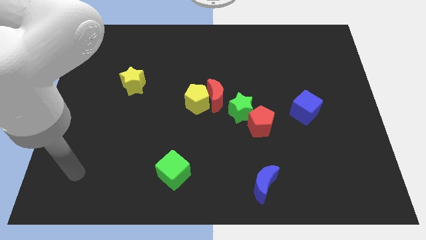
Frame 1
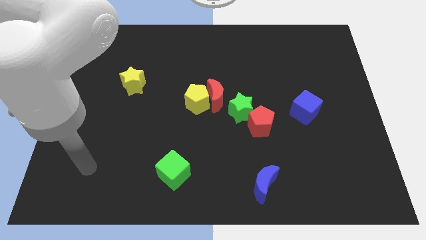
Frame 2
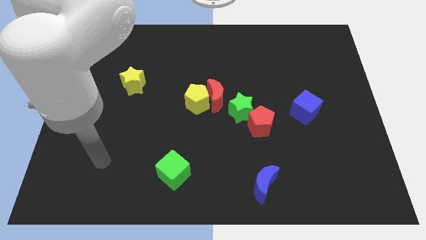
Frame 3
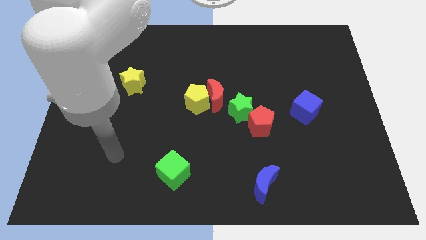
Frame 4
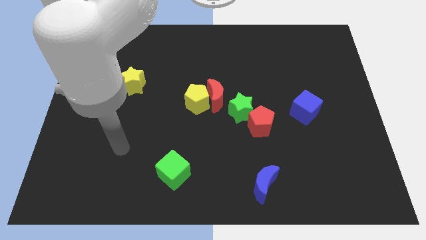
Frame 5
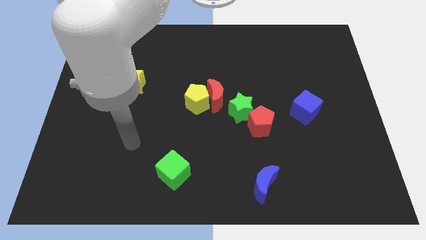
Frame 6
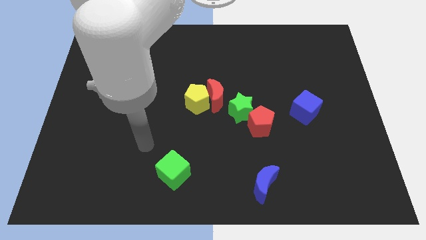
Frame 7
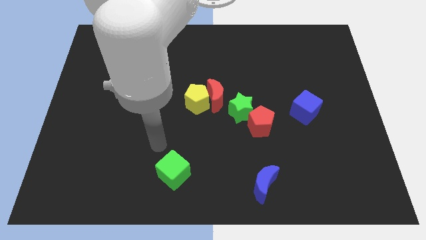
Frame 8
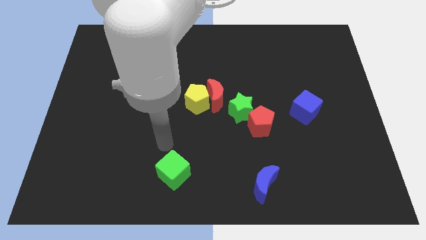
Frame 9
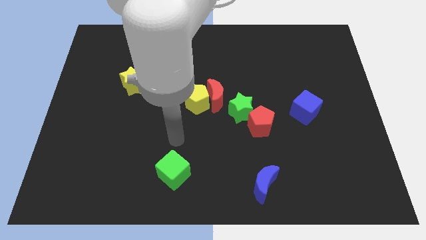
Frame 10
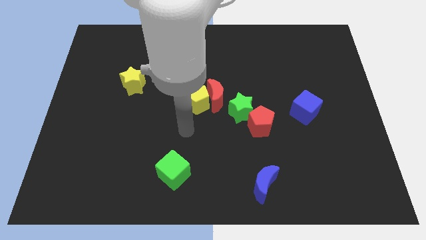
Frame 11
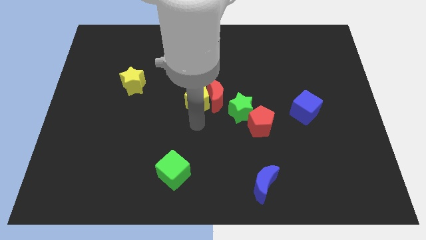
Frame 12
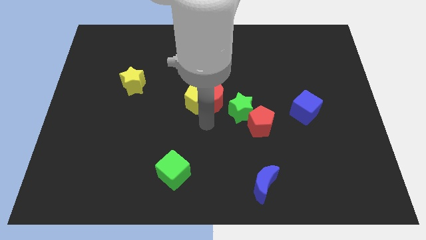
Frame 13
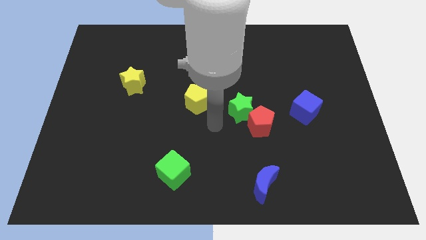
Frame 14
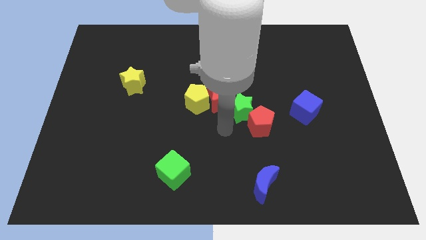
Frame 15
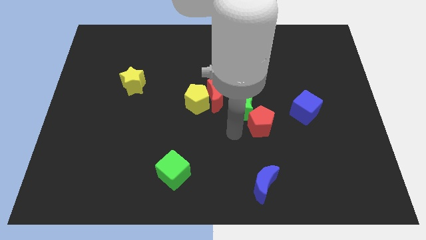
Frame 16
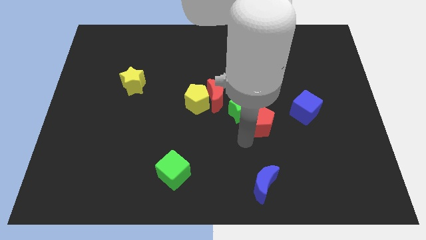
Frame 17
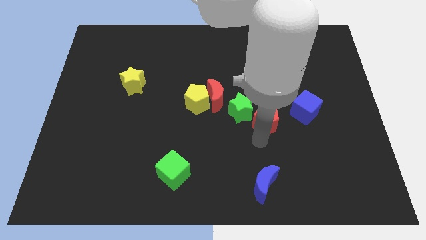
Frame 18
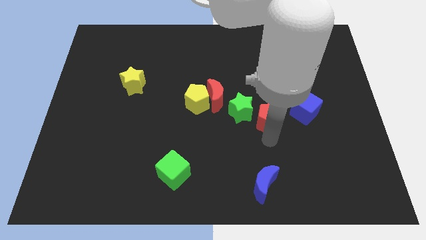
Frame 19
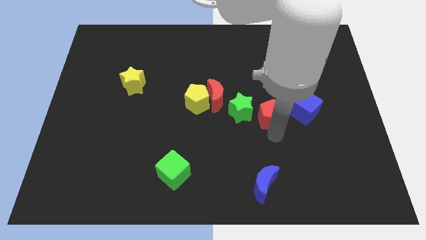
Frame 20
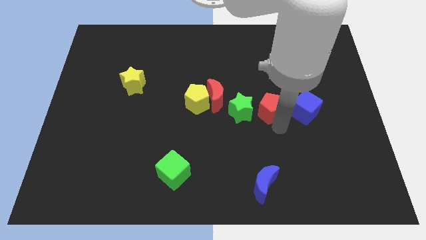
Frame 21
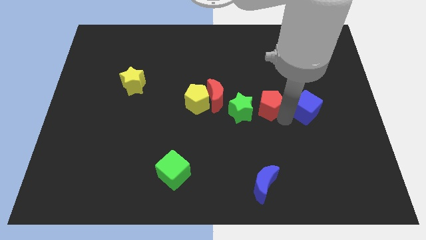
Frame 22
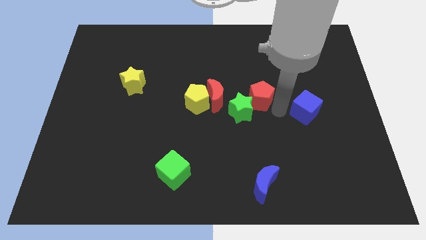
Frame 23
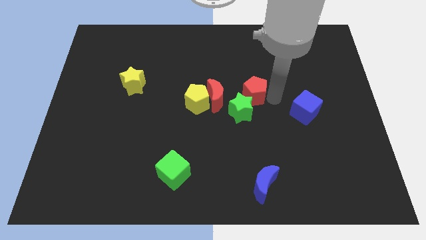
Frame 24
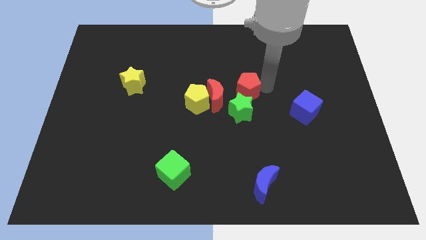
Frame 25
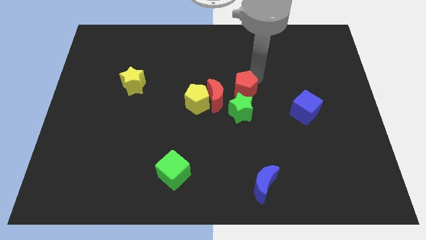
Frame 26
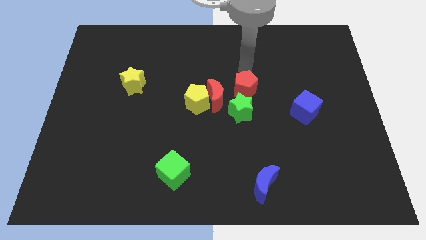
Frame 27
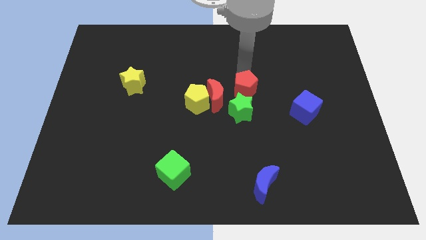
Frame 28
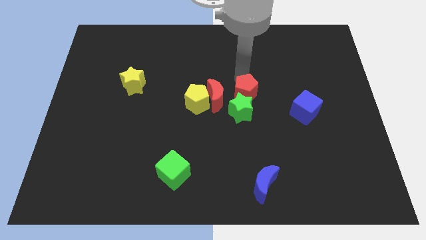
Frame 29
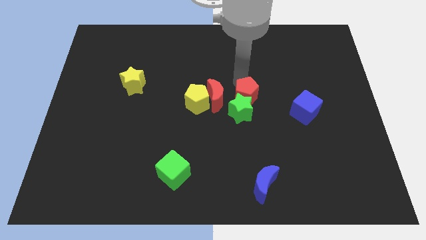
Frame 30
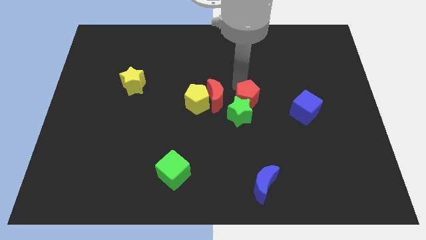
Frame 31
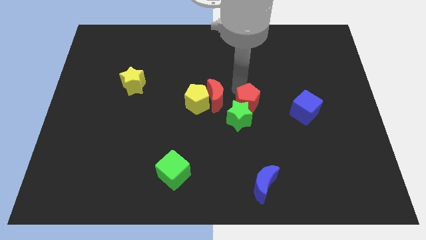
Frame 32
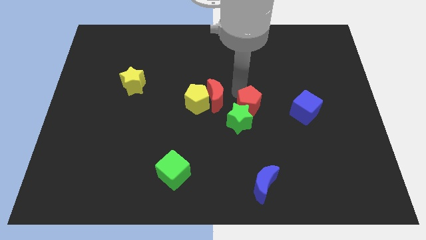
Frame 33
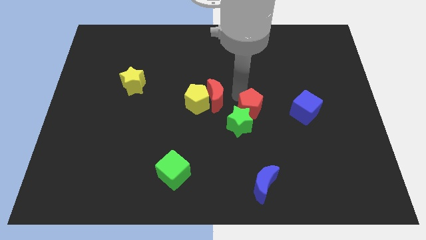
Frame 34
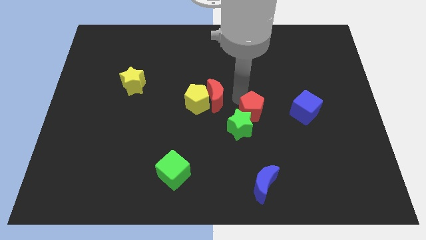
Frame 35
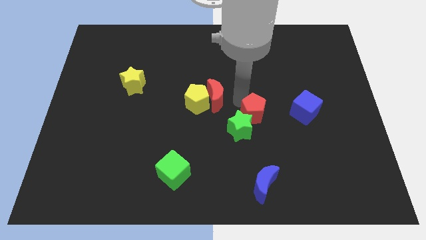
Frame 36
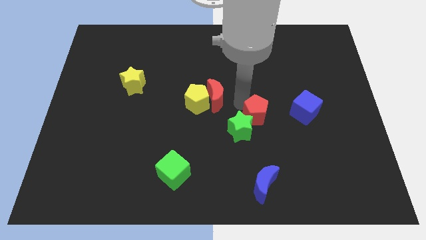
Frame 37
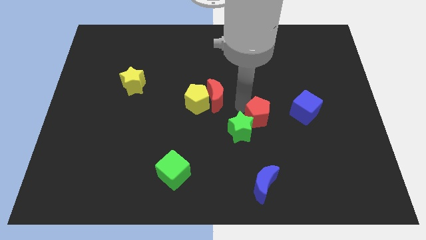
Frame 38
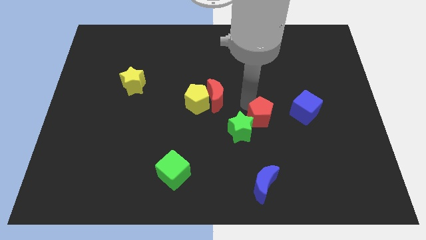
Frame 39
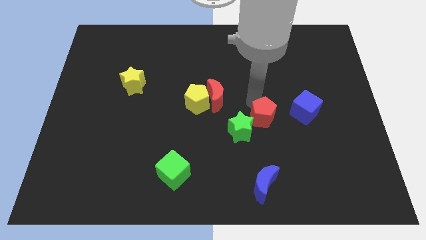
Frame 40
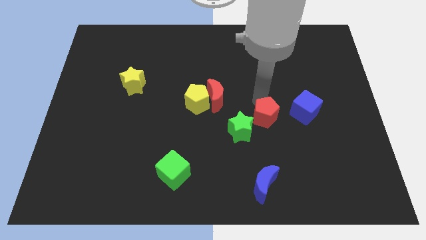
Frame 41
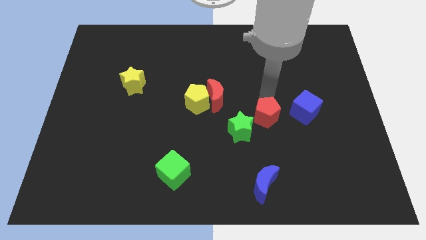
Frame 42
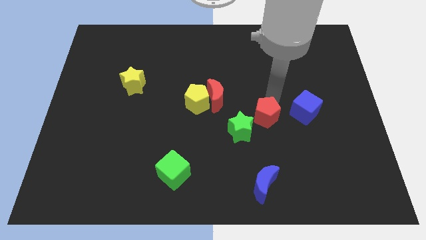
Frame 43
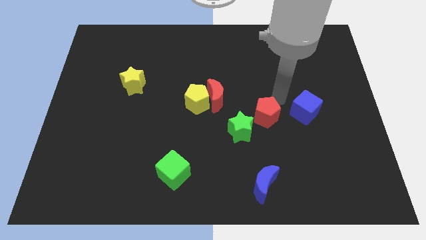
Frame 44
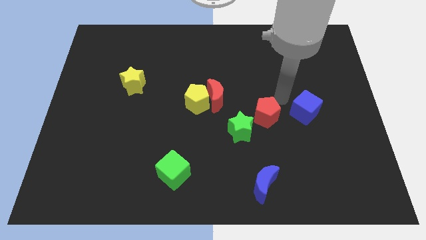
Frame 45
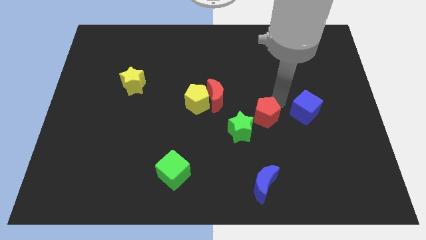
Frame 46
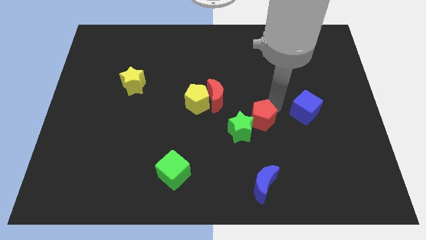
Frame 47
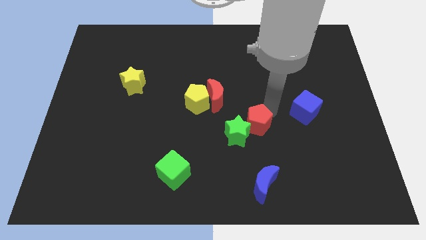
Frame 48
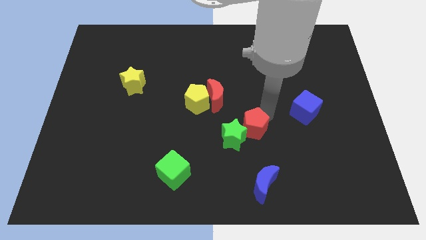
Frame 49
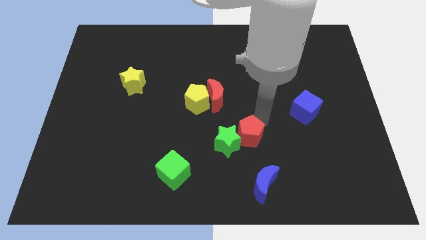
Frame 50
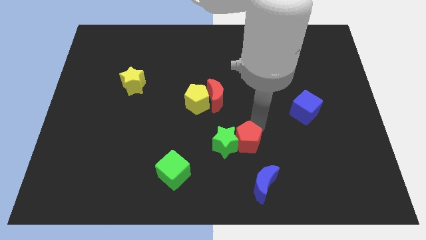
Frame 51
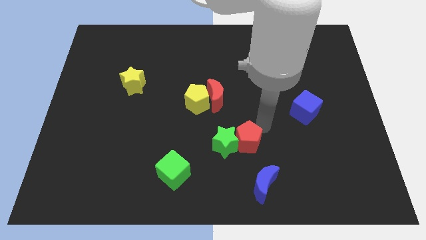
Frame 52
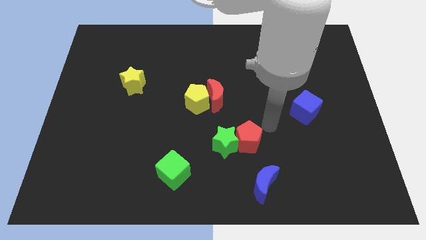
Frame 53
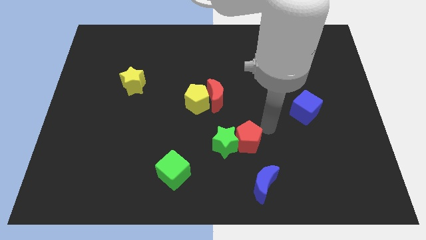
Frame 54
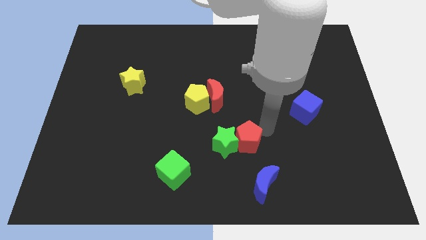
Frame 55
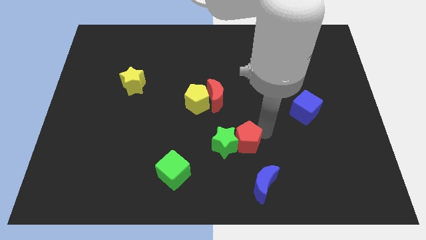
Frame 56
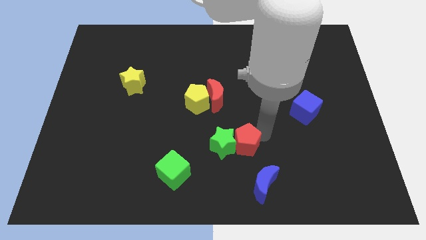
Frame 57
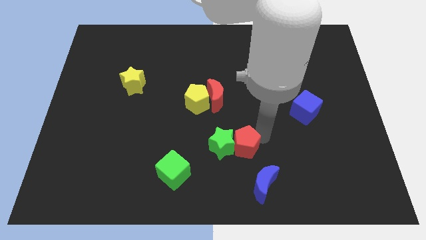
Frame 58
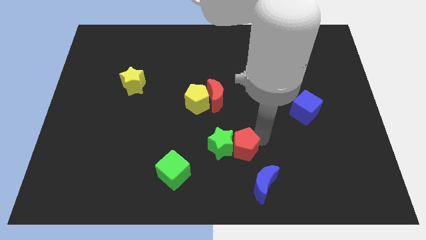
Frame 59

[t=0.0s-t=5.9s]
slightly push the red pentagon downwards and left diagonally

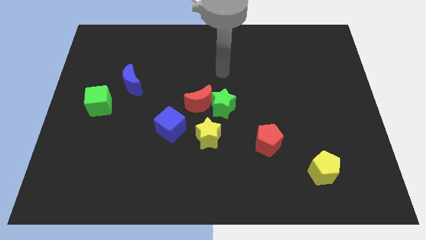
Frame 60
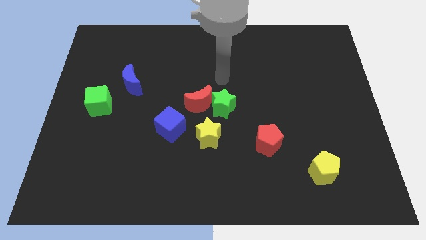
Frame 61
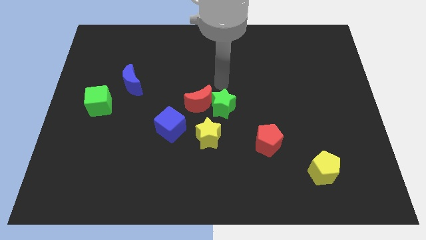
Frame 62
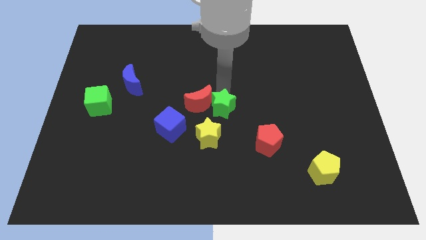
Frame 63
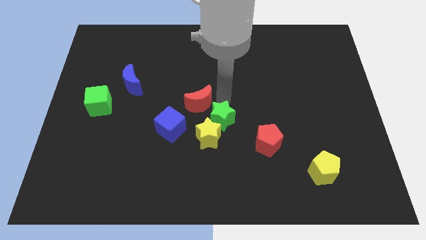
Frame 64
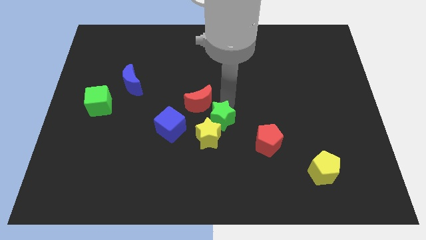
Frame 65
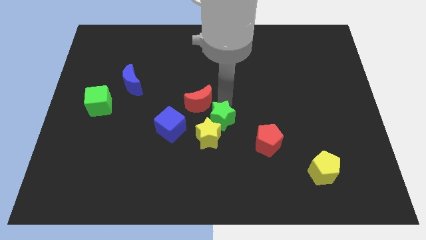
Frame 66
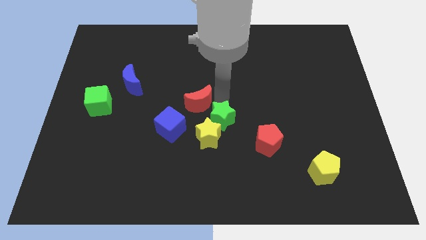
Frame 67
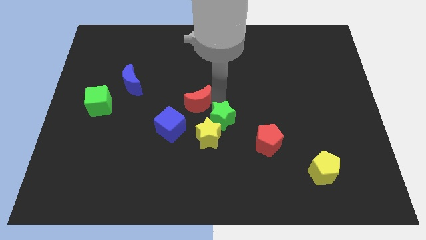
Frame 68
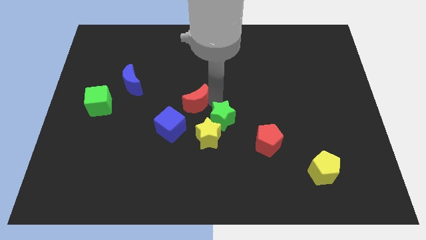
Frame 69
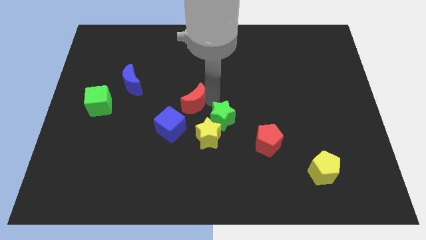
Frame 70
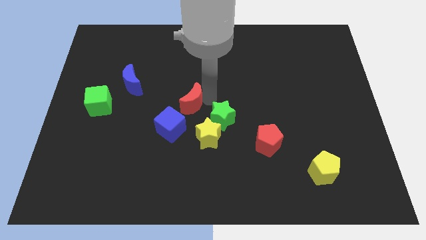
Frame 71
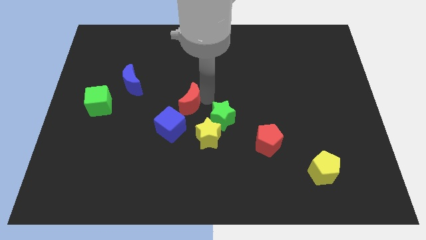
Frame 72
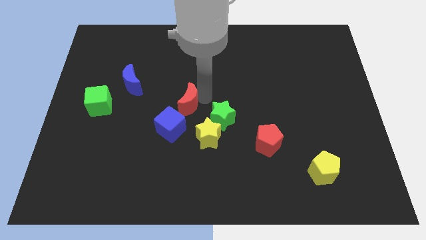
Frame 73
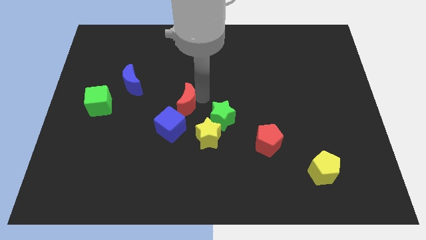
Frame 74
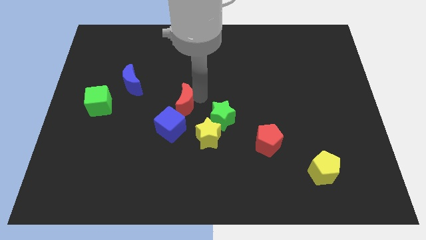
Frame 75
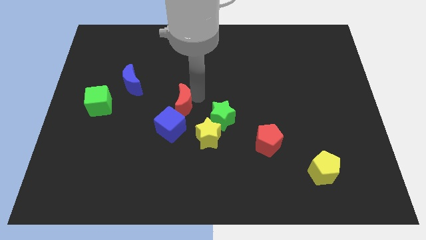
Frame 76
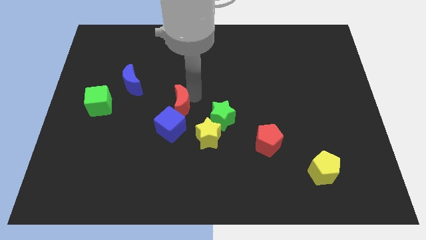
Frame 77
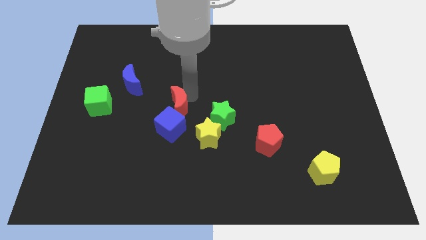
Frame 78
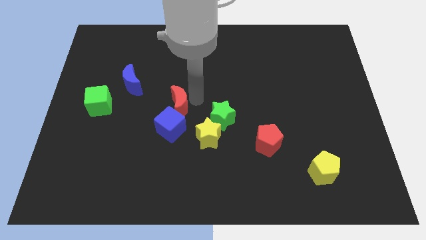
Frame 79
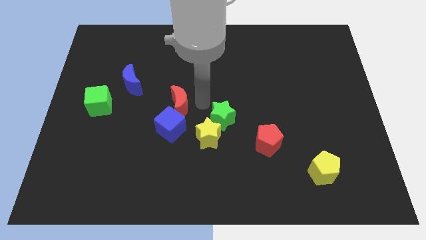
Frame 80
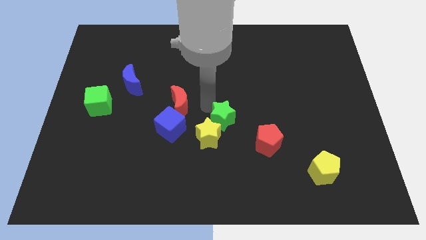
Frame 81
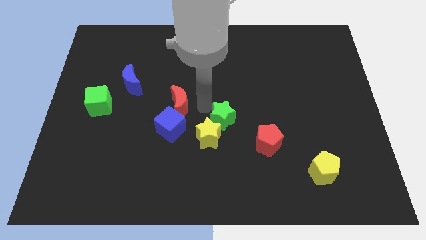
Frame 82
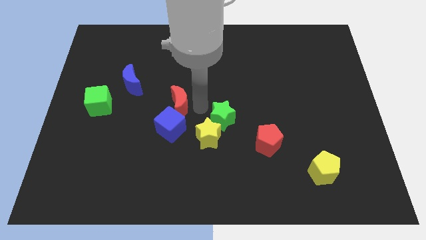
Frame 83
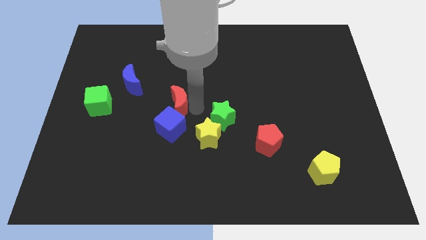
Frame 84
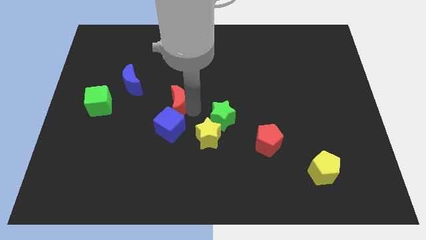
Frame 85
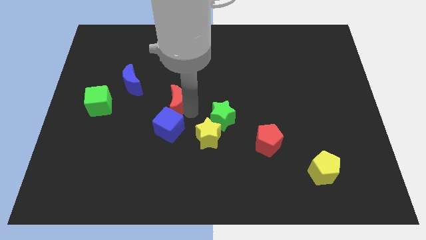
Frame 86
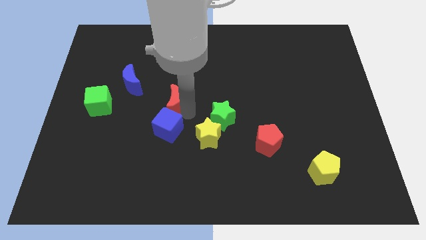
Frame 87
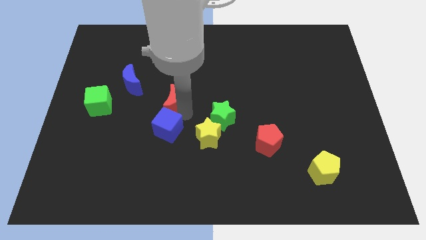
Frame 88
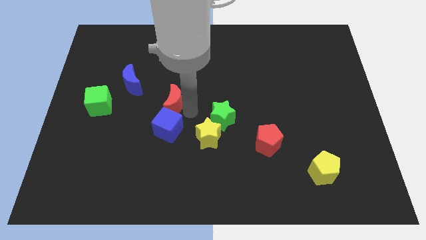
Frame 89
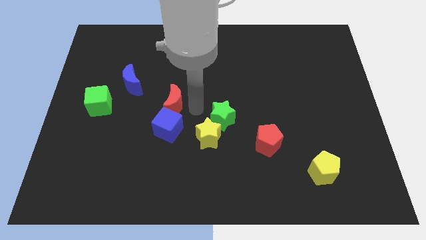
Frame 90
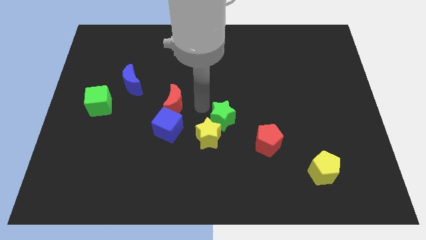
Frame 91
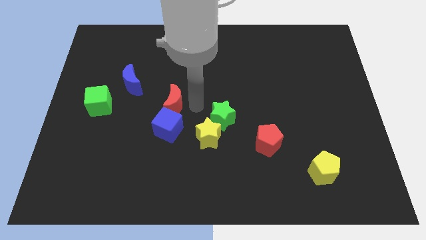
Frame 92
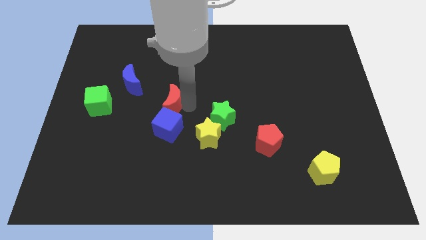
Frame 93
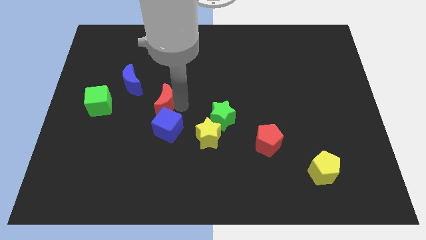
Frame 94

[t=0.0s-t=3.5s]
push the red moon to the left a bit
